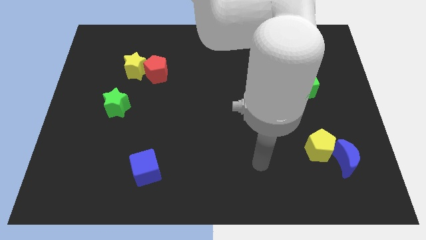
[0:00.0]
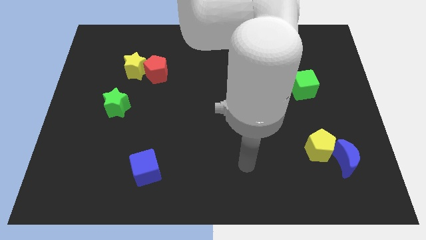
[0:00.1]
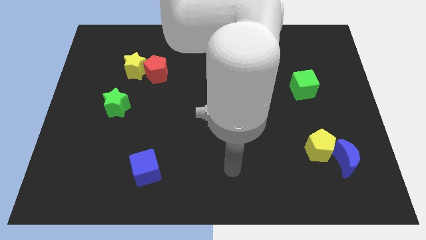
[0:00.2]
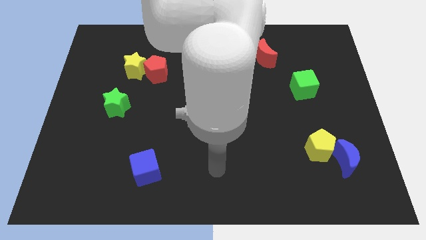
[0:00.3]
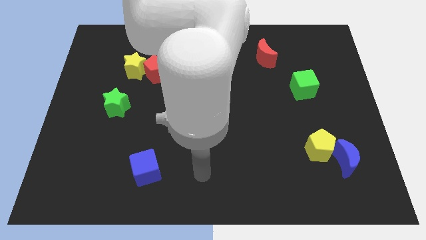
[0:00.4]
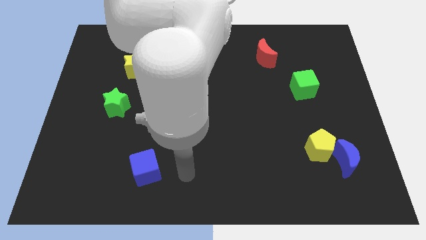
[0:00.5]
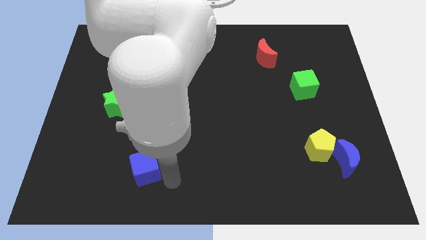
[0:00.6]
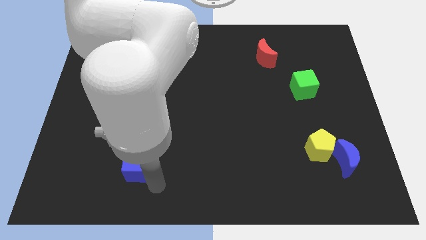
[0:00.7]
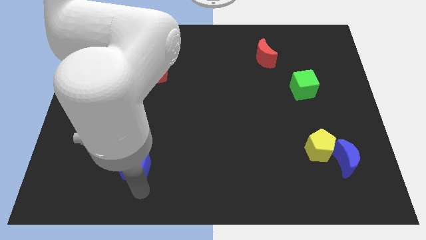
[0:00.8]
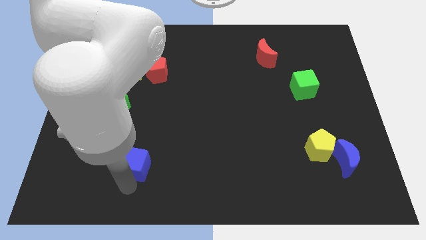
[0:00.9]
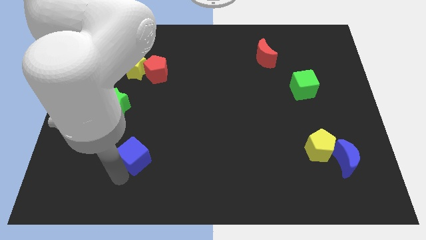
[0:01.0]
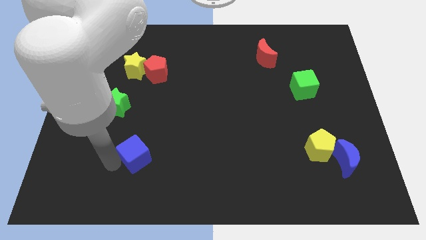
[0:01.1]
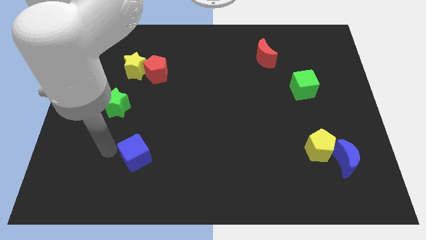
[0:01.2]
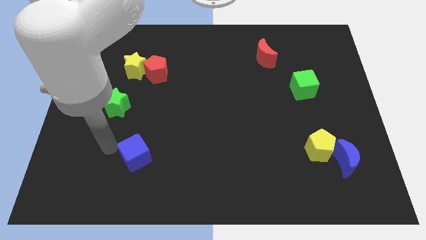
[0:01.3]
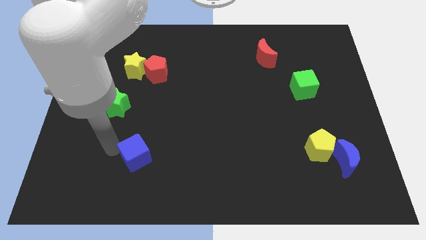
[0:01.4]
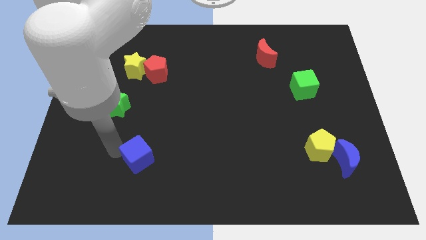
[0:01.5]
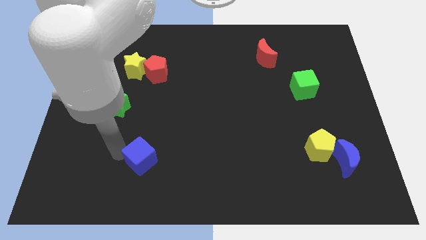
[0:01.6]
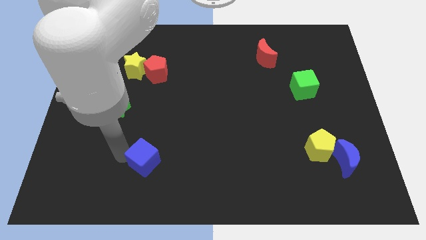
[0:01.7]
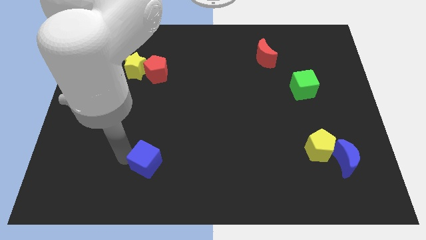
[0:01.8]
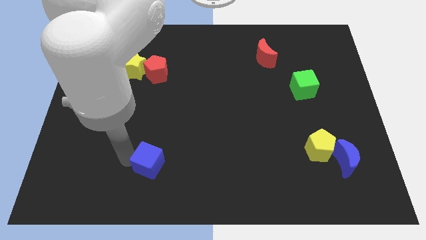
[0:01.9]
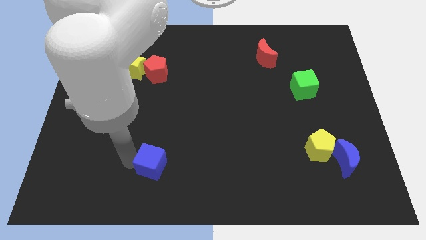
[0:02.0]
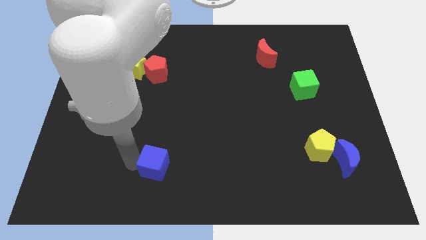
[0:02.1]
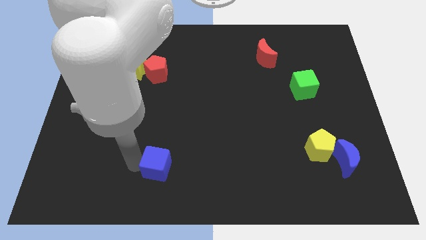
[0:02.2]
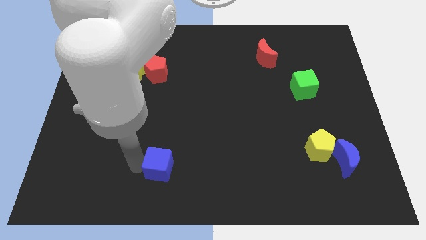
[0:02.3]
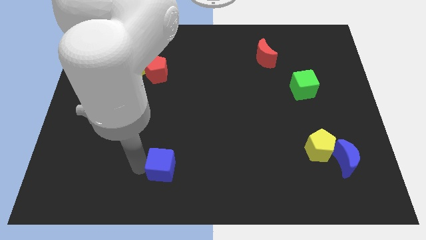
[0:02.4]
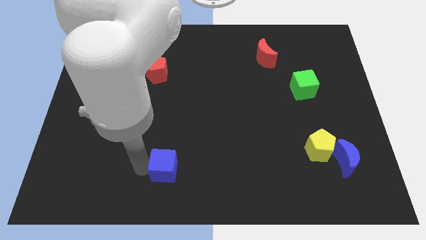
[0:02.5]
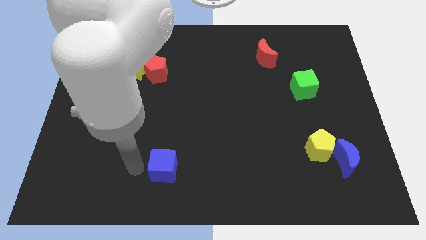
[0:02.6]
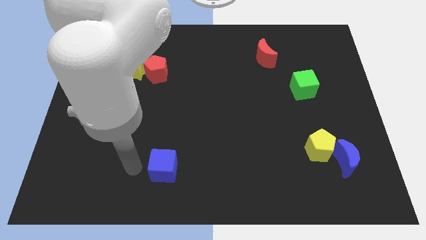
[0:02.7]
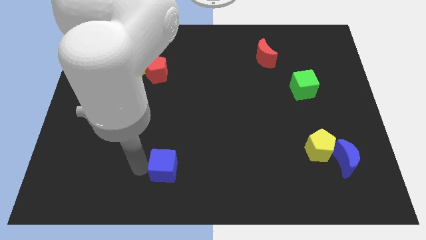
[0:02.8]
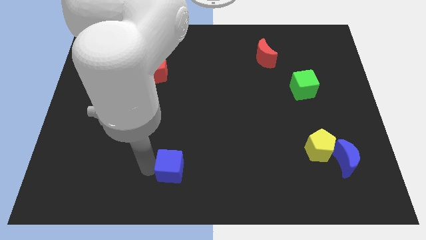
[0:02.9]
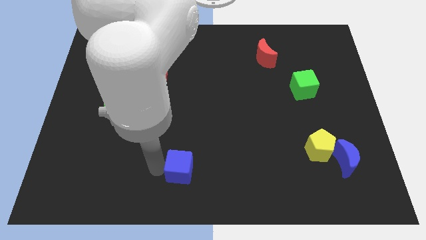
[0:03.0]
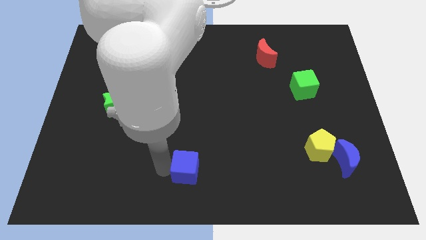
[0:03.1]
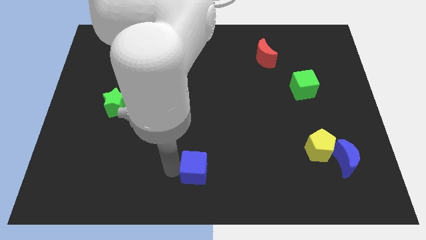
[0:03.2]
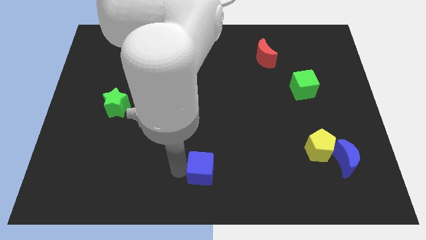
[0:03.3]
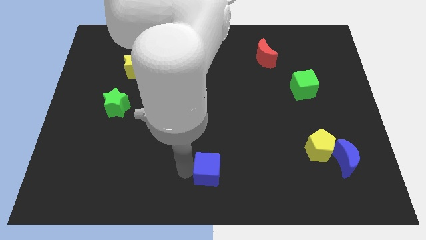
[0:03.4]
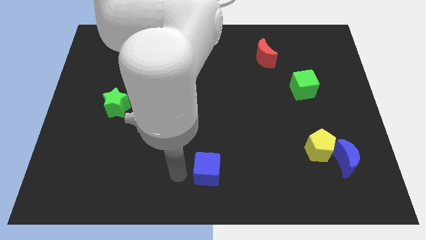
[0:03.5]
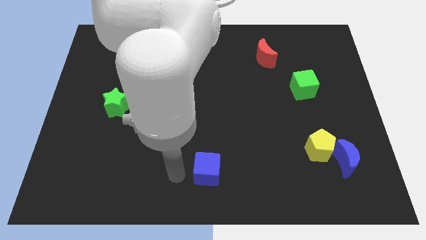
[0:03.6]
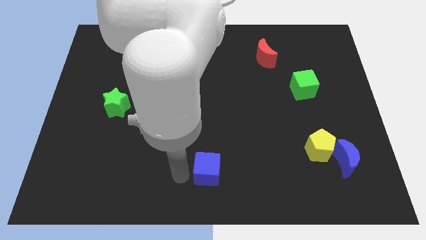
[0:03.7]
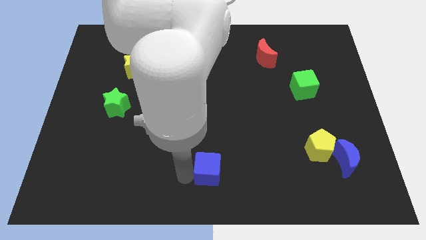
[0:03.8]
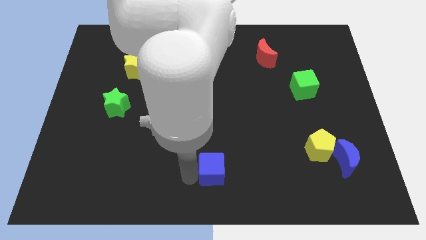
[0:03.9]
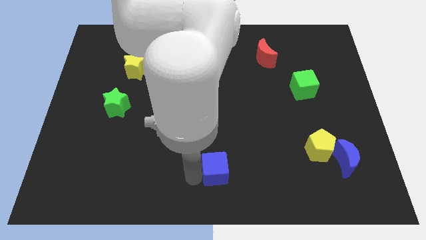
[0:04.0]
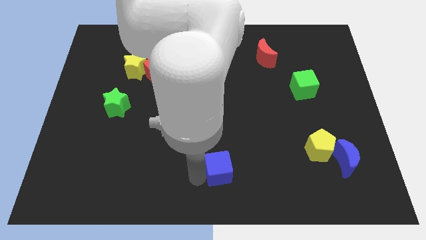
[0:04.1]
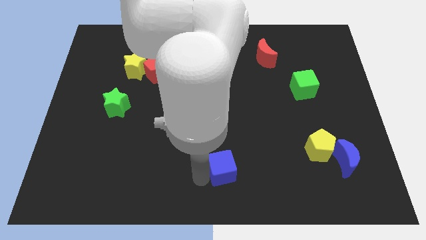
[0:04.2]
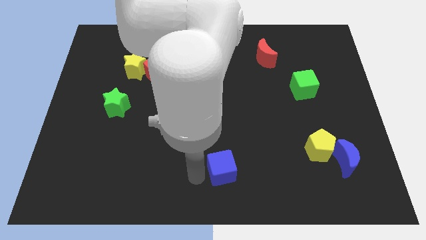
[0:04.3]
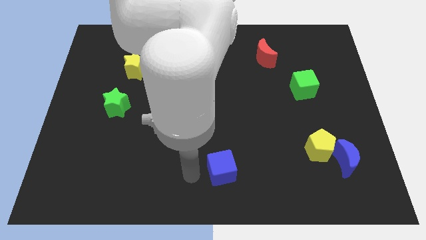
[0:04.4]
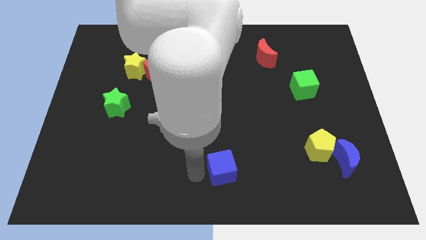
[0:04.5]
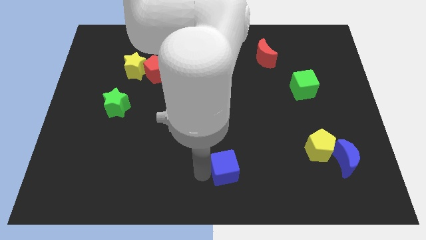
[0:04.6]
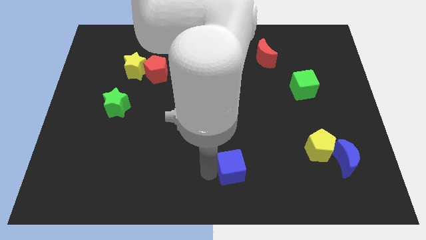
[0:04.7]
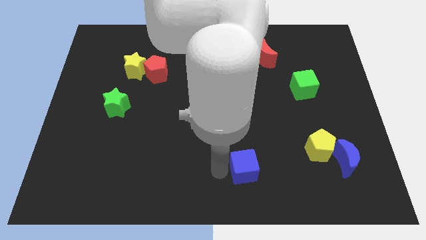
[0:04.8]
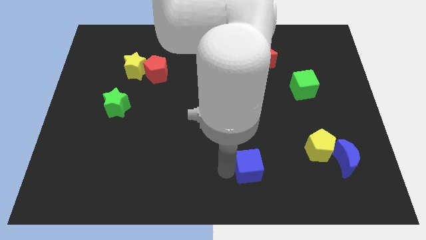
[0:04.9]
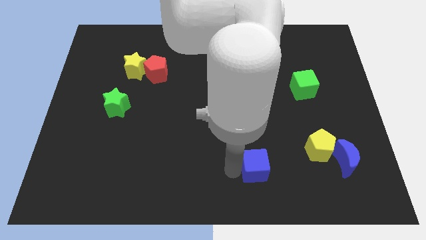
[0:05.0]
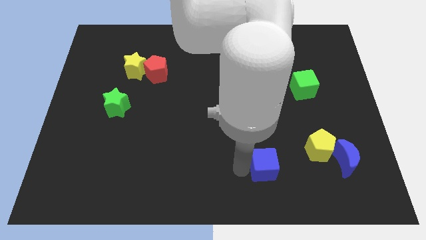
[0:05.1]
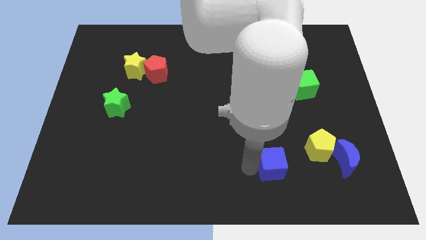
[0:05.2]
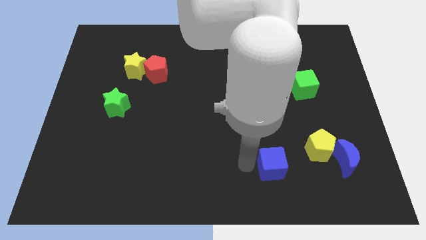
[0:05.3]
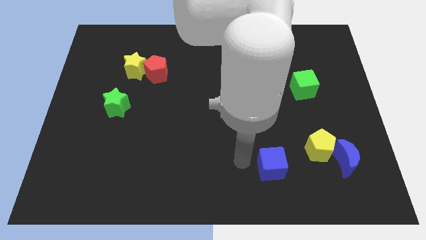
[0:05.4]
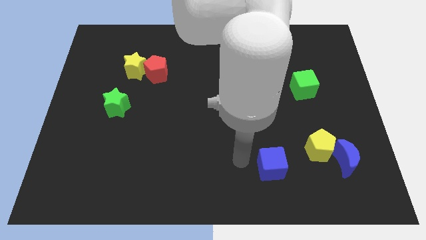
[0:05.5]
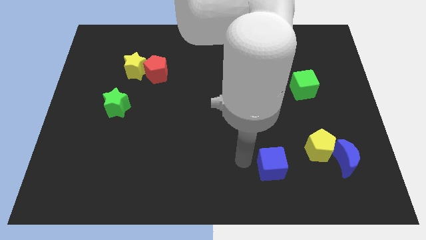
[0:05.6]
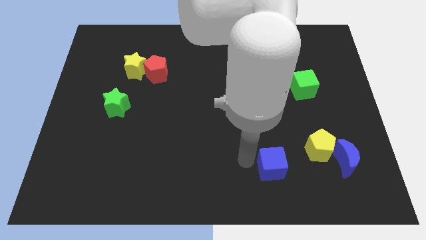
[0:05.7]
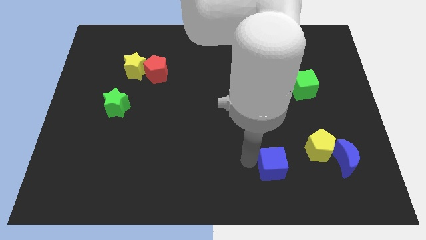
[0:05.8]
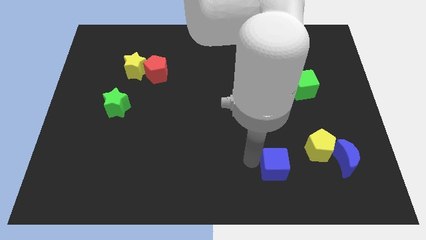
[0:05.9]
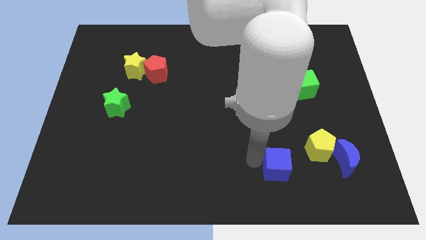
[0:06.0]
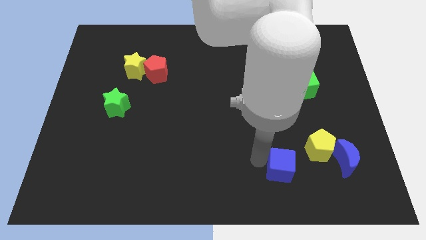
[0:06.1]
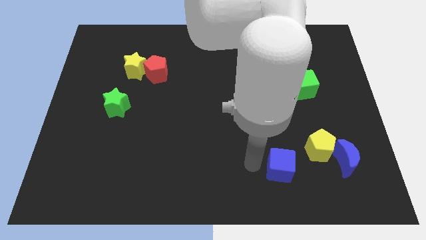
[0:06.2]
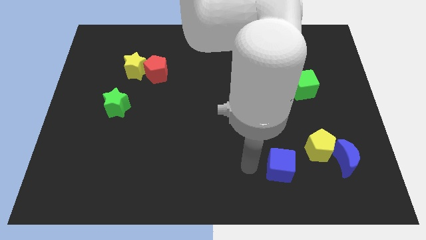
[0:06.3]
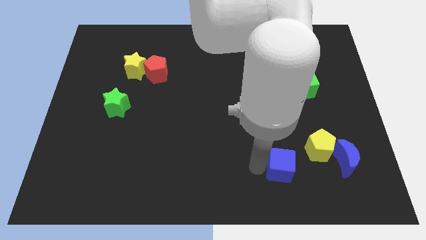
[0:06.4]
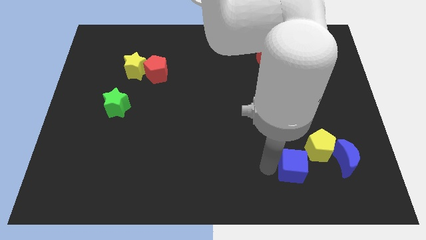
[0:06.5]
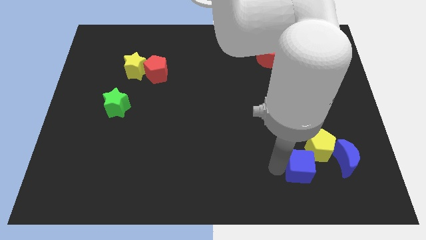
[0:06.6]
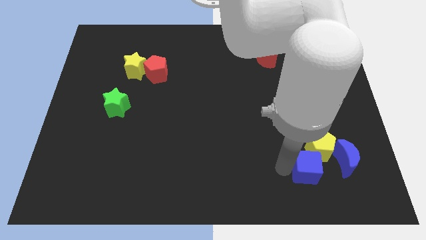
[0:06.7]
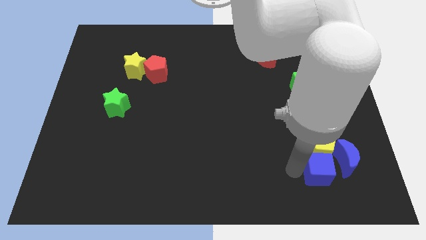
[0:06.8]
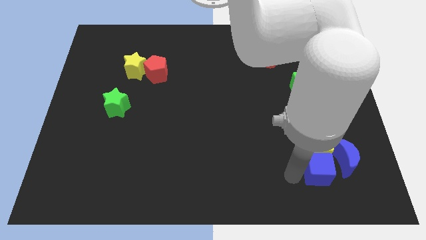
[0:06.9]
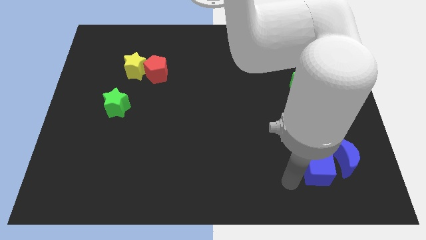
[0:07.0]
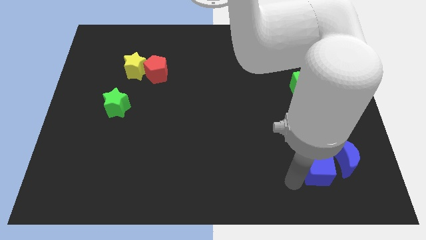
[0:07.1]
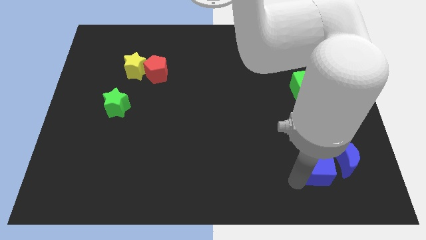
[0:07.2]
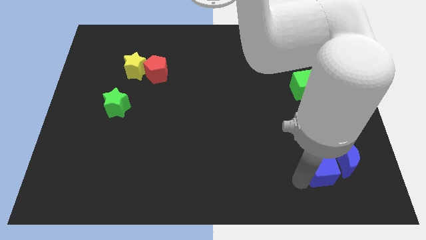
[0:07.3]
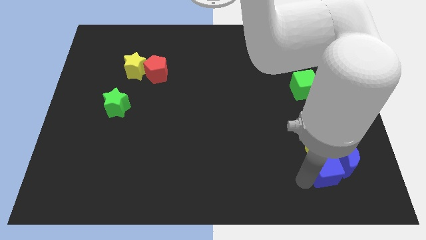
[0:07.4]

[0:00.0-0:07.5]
push the blue cube towards the blue moon

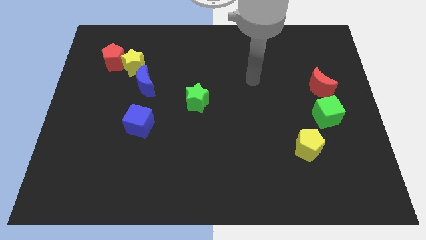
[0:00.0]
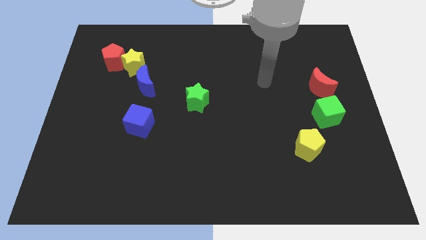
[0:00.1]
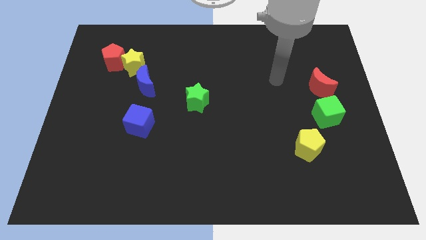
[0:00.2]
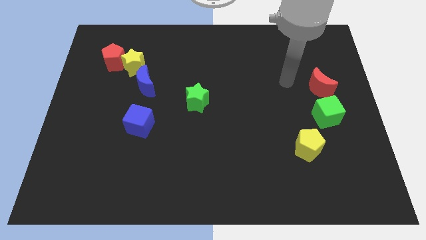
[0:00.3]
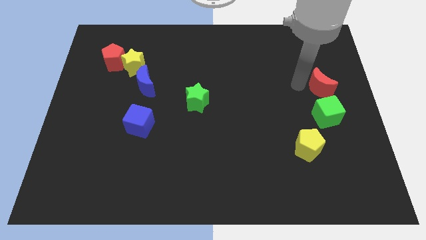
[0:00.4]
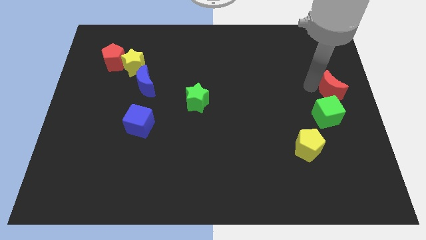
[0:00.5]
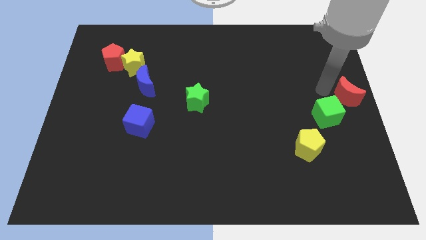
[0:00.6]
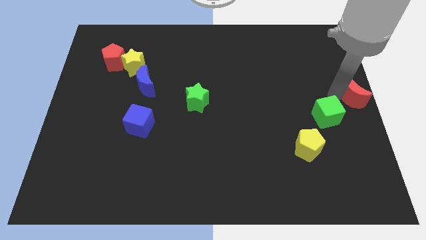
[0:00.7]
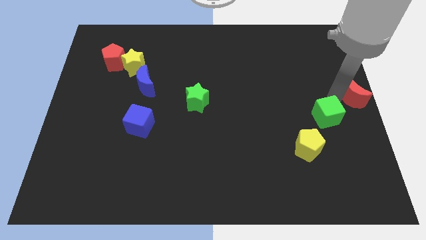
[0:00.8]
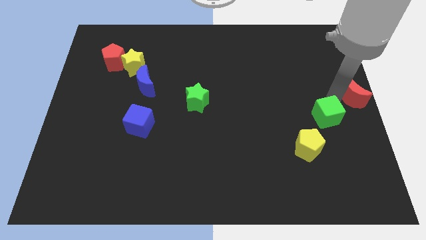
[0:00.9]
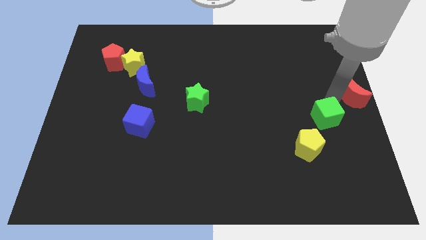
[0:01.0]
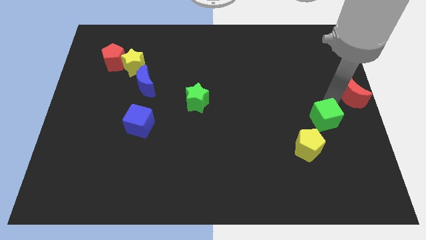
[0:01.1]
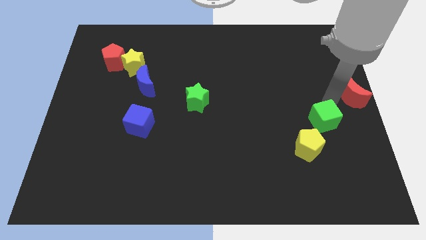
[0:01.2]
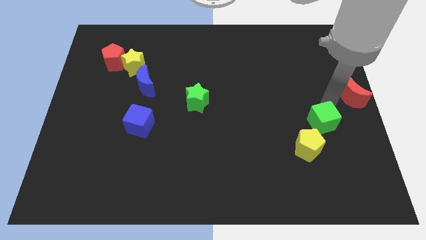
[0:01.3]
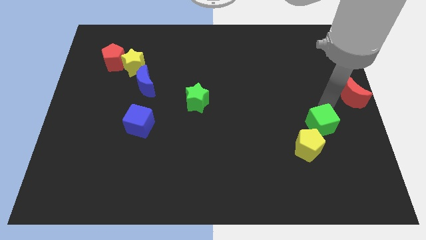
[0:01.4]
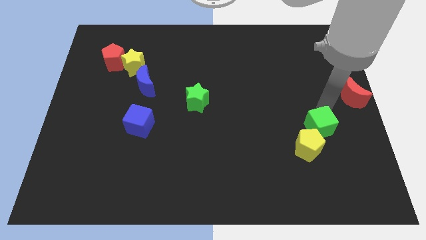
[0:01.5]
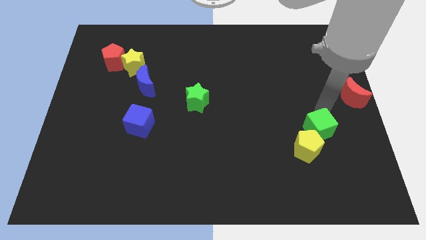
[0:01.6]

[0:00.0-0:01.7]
push the green cube close to the yellow pentagon
